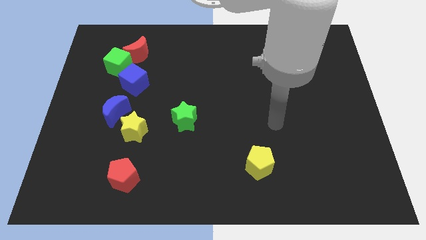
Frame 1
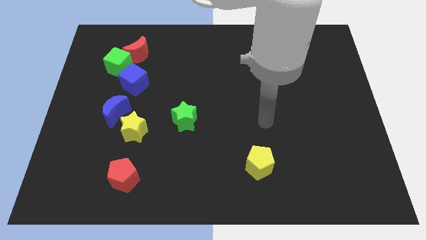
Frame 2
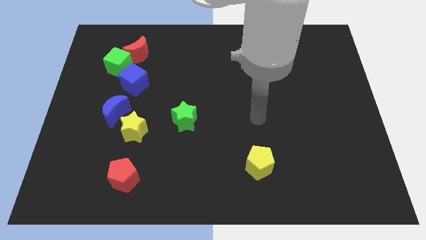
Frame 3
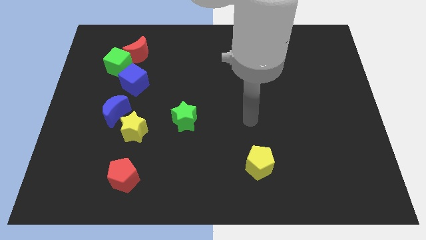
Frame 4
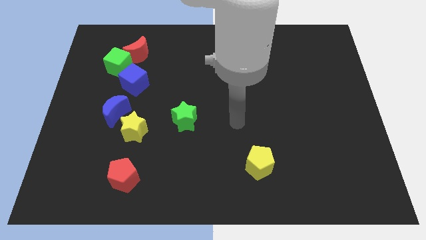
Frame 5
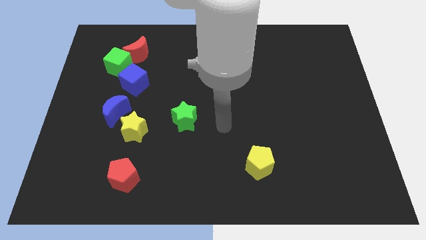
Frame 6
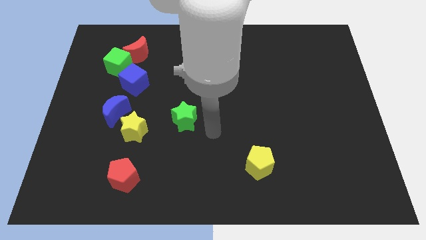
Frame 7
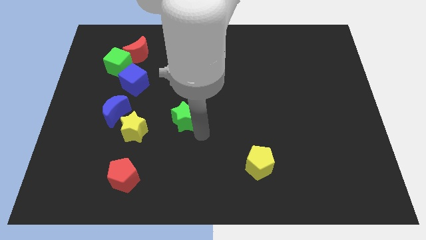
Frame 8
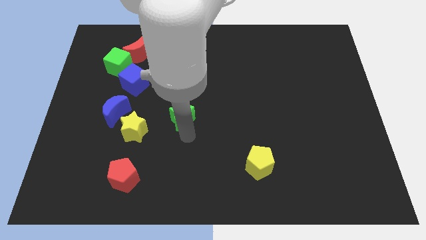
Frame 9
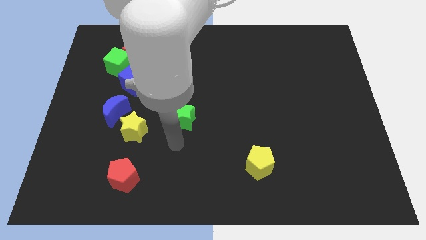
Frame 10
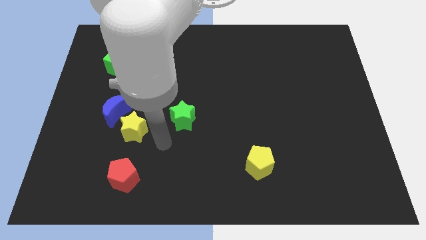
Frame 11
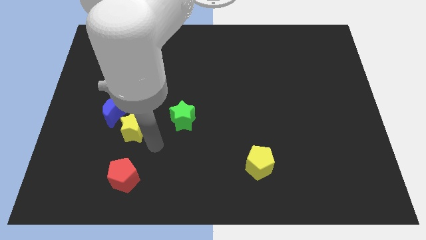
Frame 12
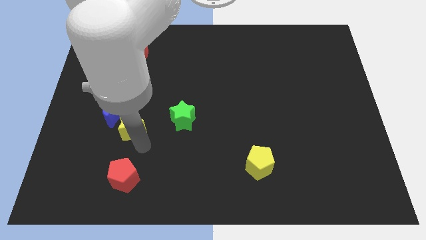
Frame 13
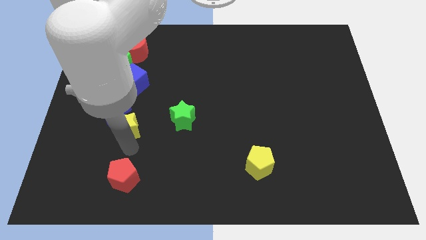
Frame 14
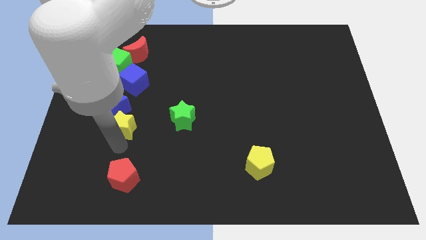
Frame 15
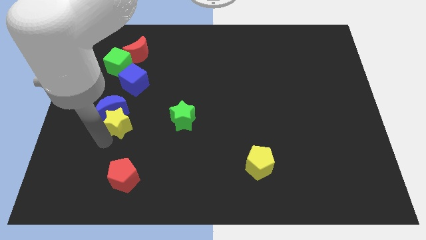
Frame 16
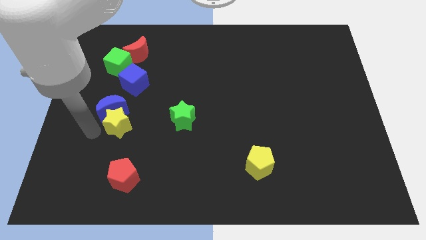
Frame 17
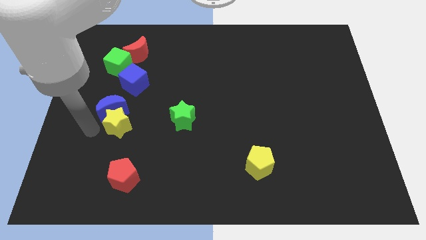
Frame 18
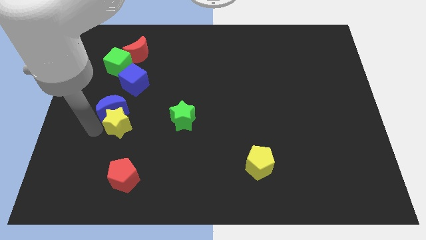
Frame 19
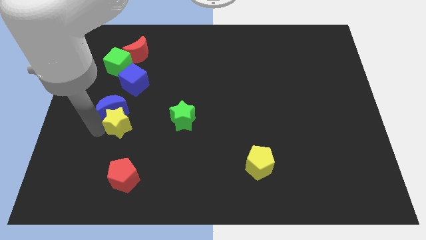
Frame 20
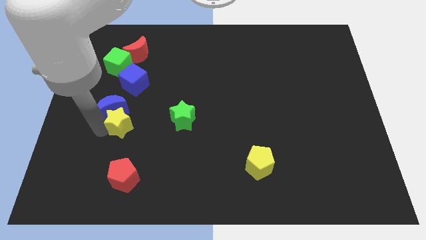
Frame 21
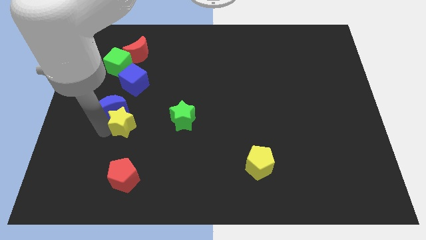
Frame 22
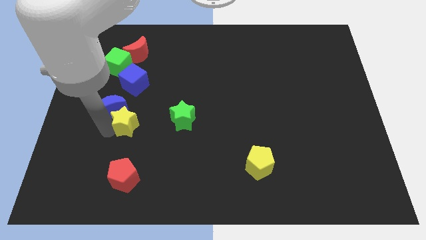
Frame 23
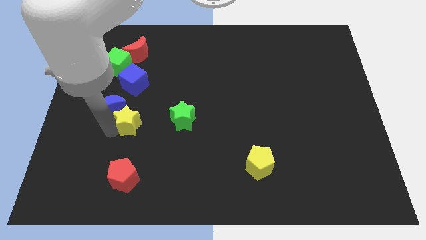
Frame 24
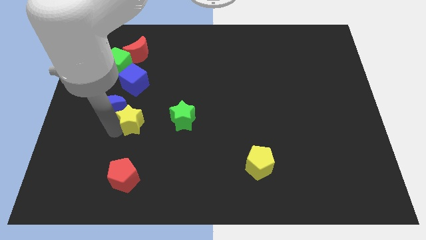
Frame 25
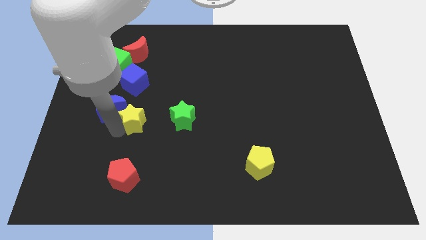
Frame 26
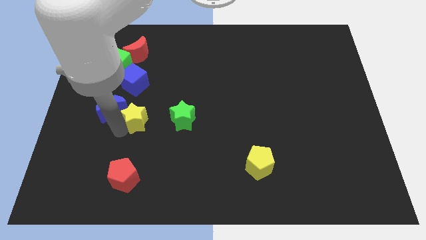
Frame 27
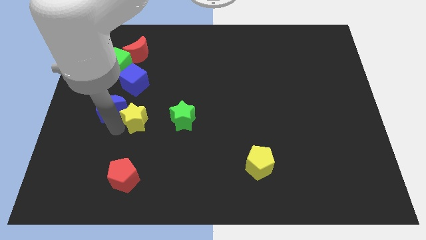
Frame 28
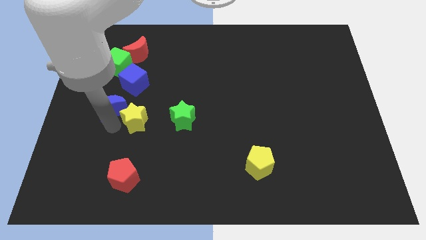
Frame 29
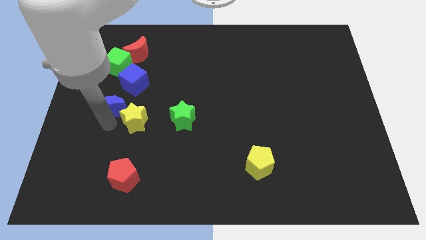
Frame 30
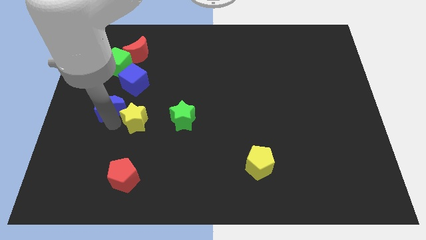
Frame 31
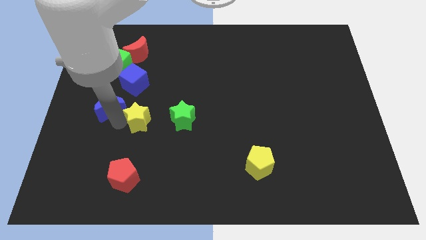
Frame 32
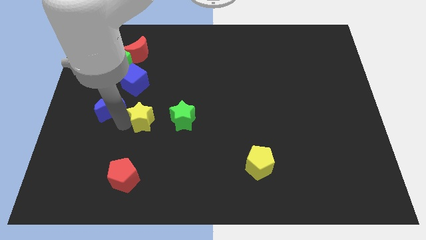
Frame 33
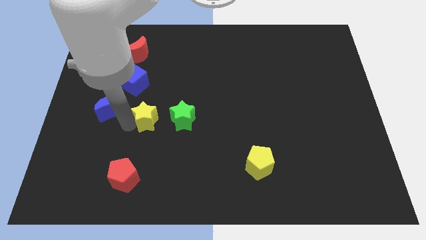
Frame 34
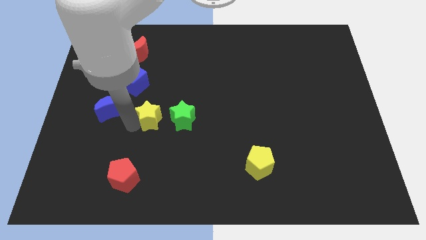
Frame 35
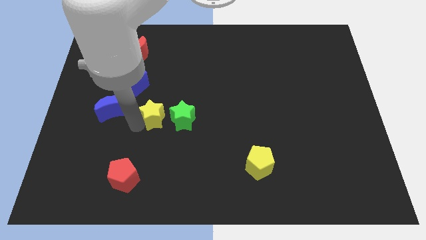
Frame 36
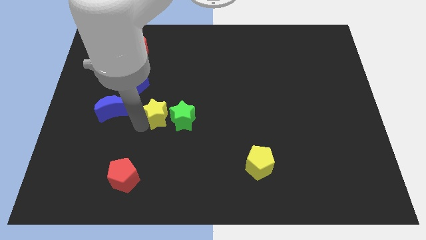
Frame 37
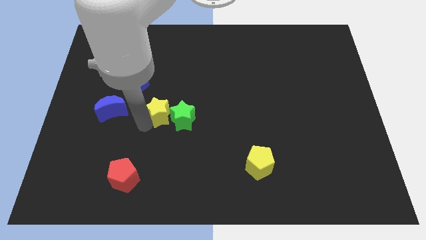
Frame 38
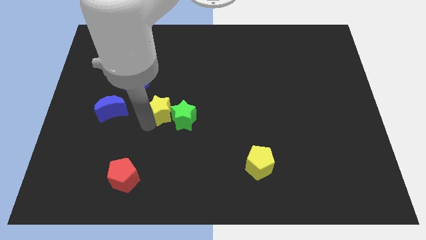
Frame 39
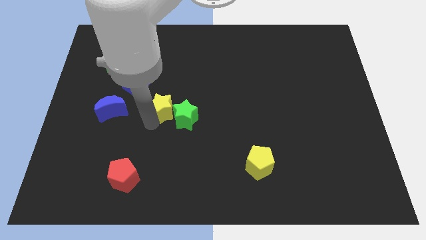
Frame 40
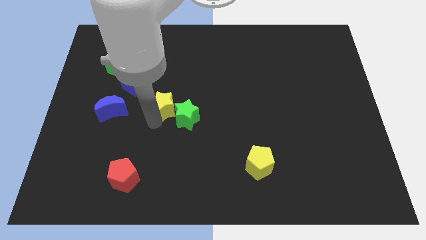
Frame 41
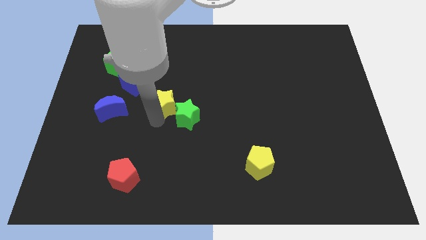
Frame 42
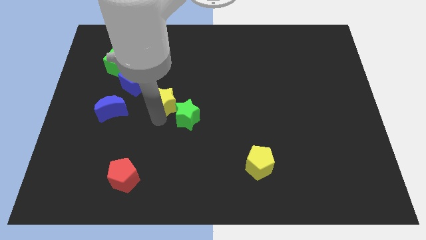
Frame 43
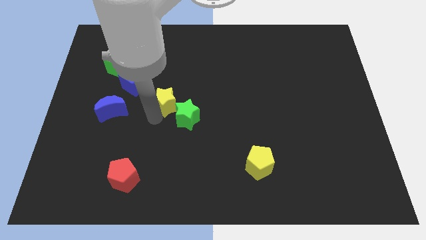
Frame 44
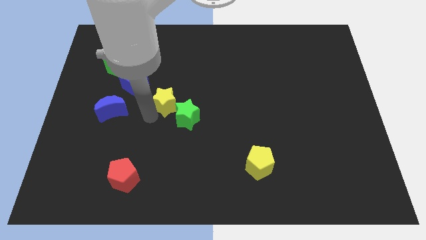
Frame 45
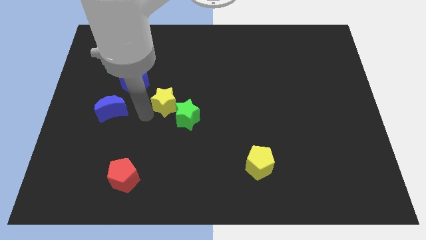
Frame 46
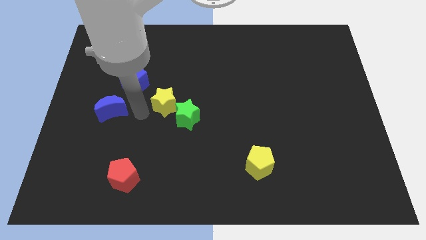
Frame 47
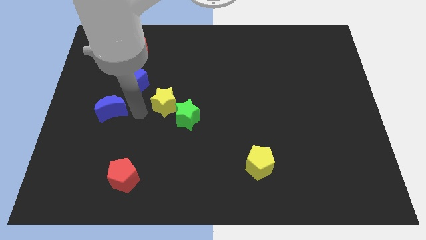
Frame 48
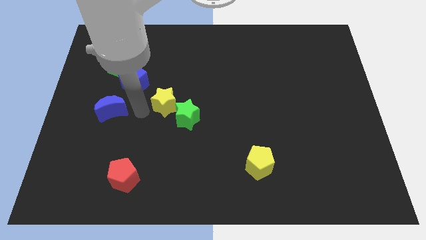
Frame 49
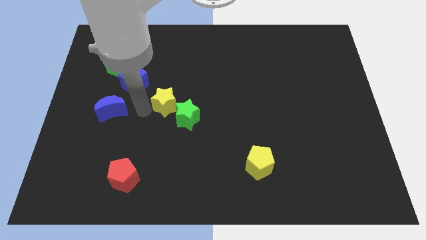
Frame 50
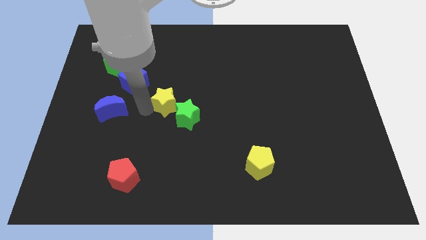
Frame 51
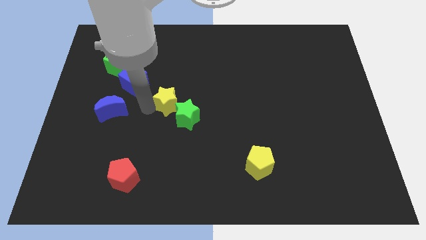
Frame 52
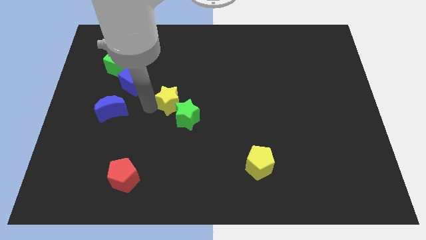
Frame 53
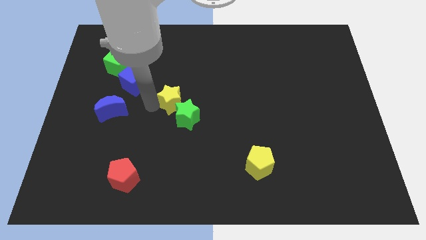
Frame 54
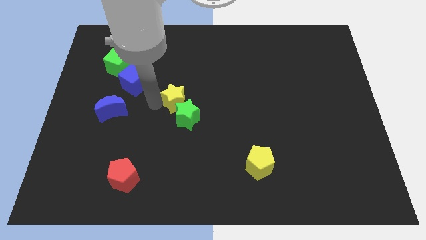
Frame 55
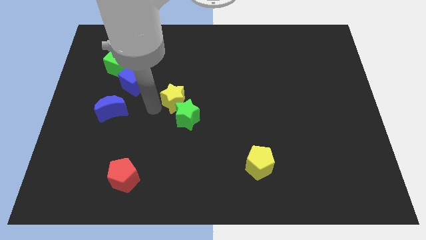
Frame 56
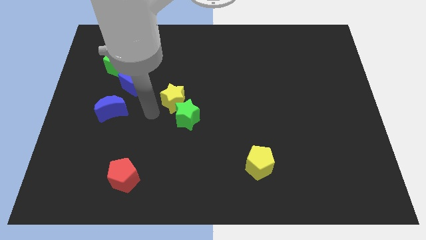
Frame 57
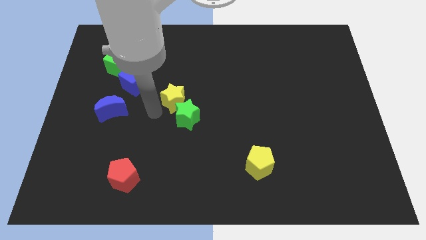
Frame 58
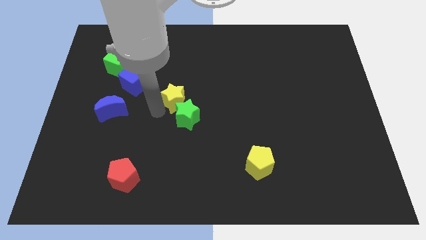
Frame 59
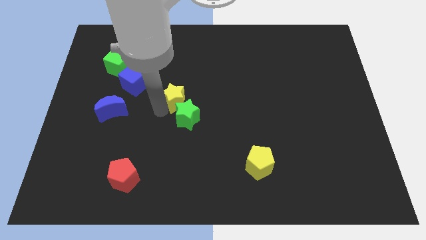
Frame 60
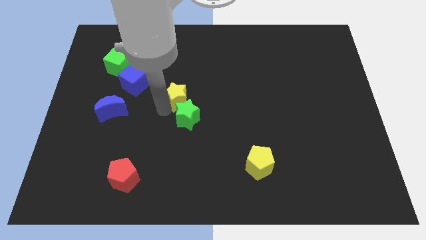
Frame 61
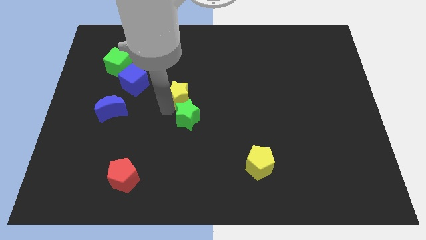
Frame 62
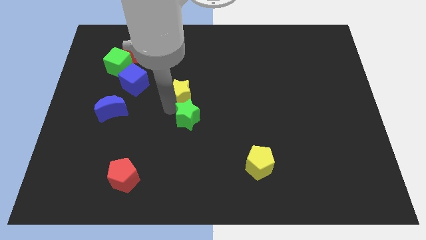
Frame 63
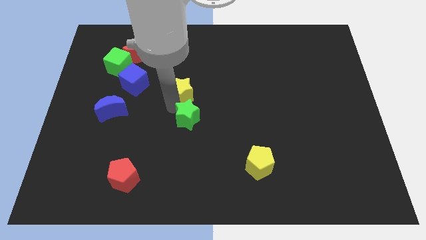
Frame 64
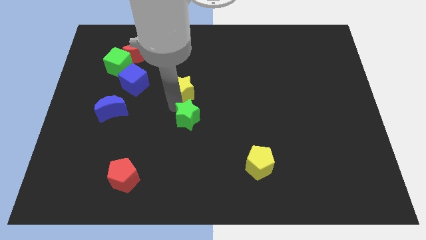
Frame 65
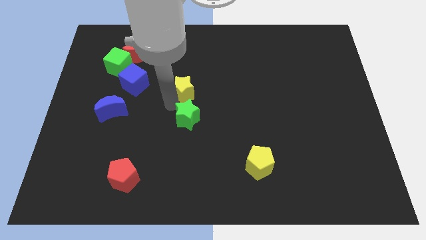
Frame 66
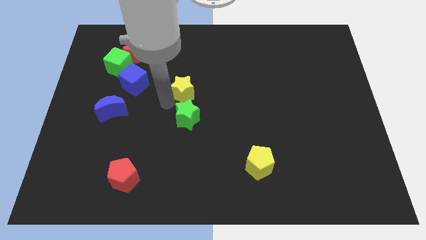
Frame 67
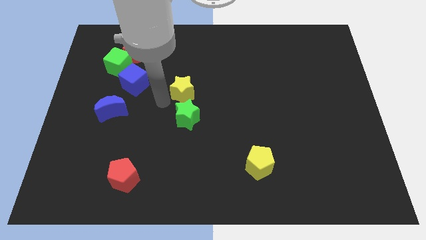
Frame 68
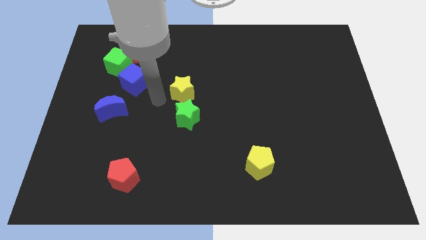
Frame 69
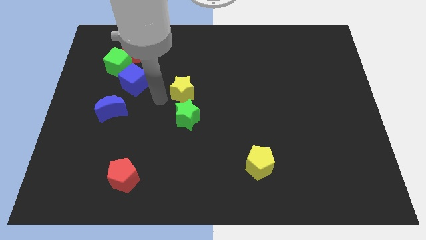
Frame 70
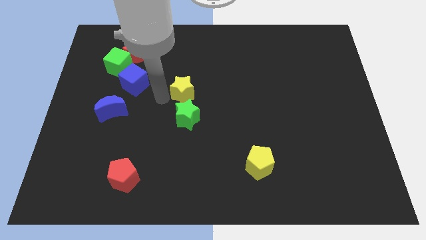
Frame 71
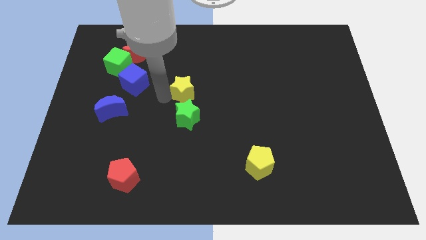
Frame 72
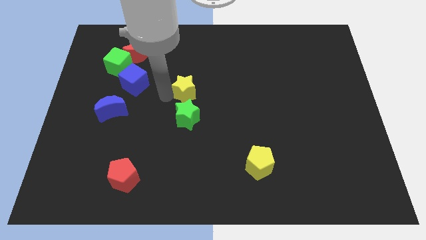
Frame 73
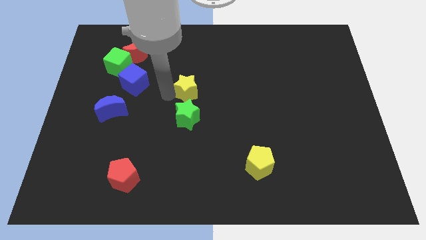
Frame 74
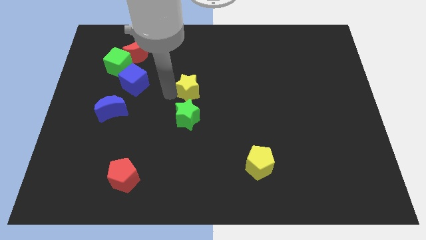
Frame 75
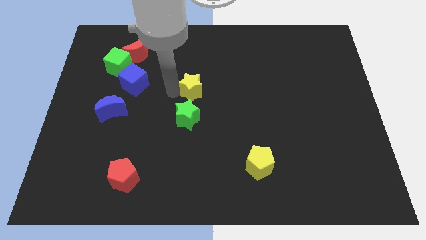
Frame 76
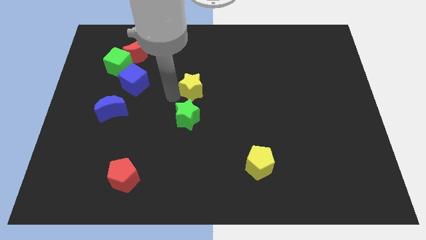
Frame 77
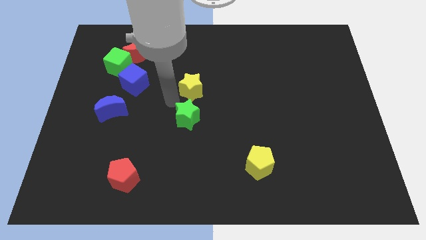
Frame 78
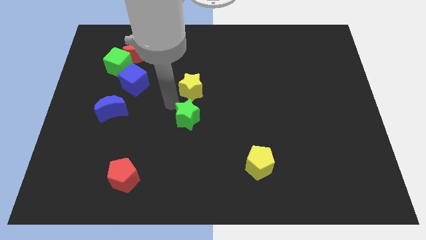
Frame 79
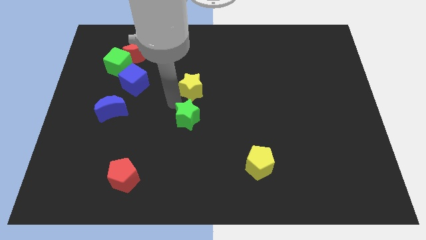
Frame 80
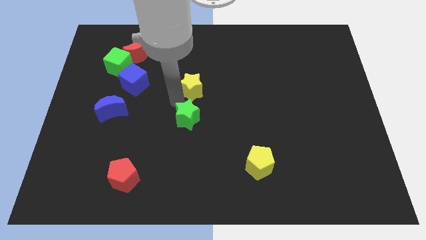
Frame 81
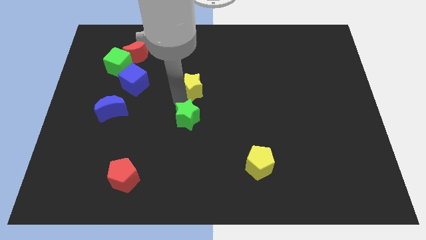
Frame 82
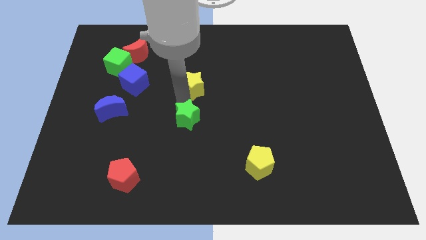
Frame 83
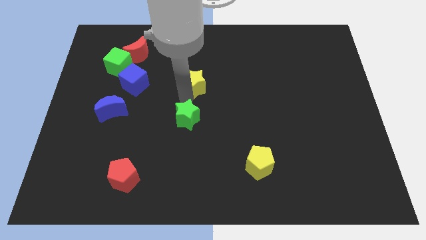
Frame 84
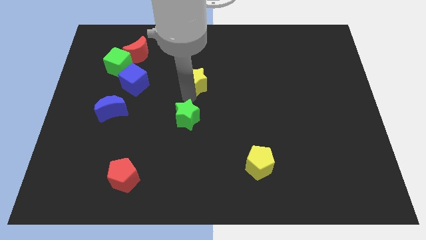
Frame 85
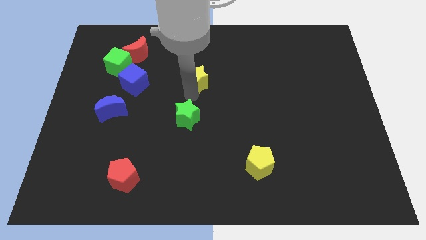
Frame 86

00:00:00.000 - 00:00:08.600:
slide the yellow star diagonally up and right
